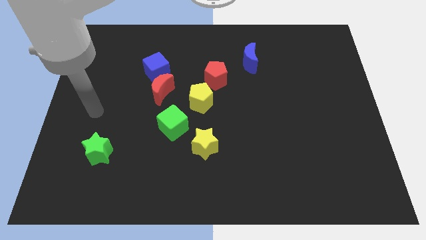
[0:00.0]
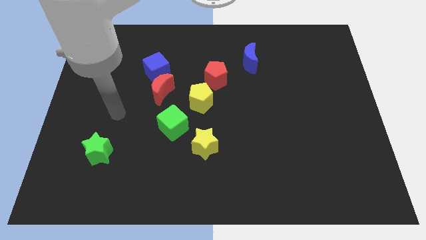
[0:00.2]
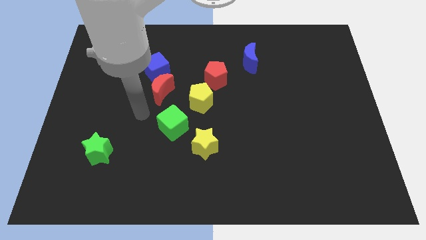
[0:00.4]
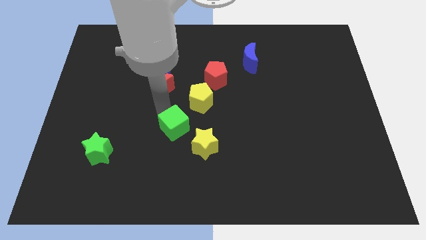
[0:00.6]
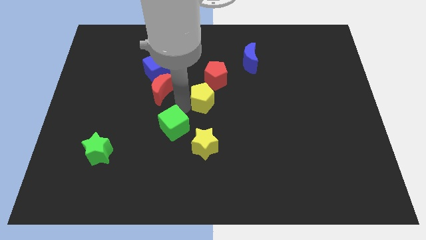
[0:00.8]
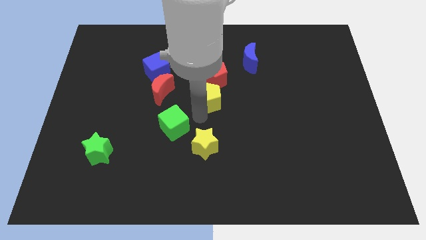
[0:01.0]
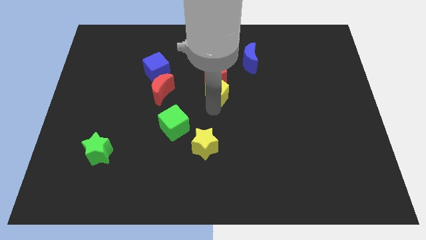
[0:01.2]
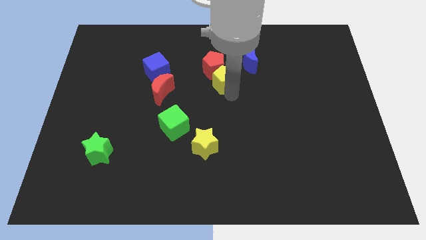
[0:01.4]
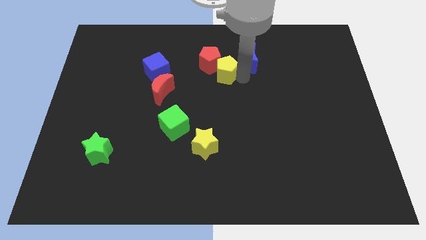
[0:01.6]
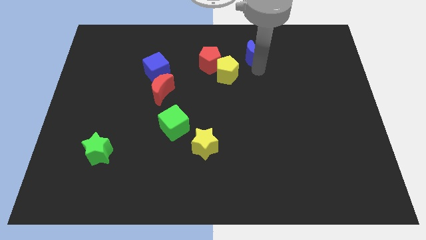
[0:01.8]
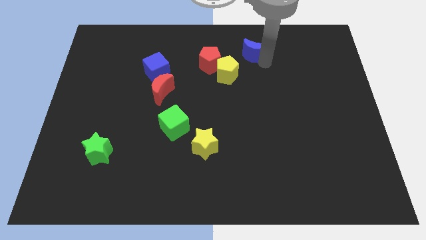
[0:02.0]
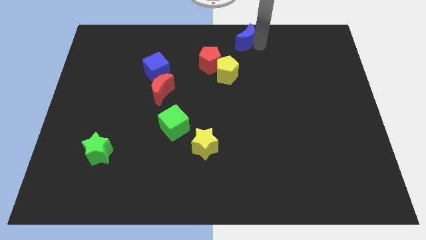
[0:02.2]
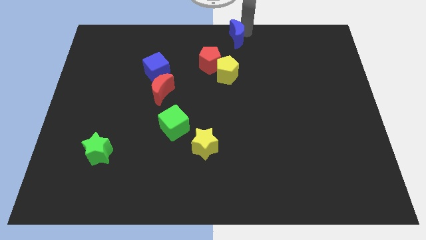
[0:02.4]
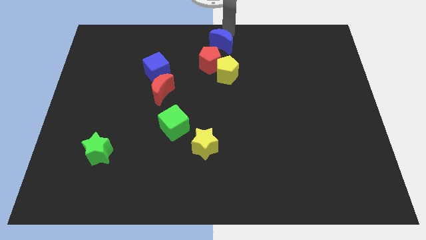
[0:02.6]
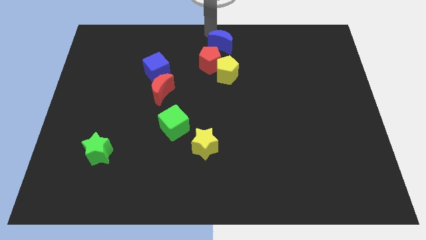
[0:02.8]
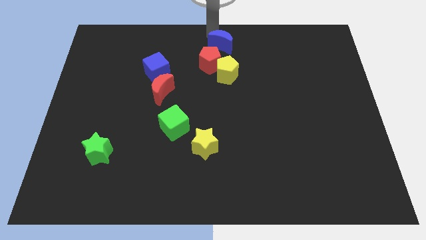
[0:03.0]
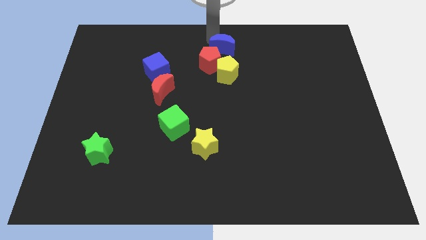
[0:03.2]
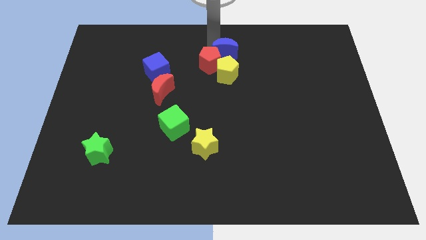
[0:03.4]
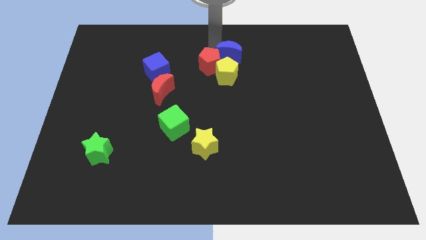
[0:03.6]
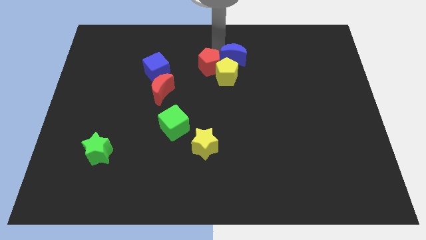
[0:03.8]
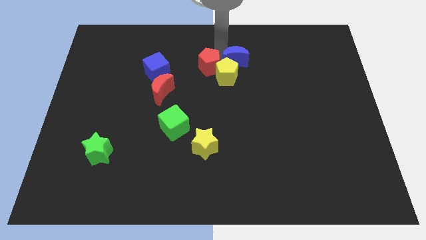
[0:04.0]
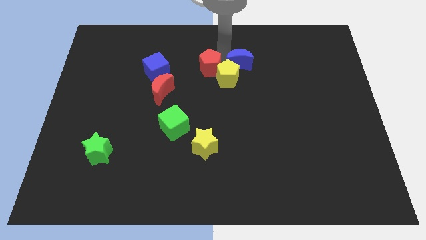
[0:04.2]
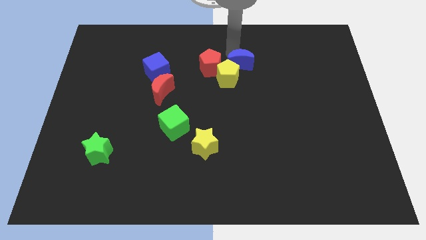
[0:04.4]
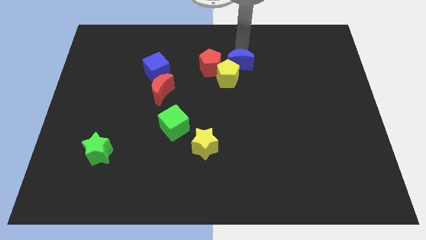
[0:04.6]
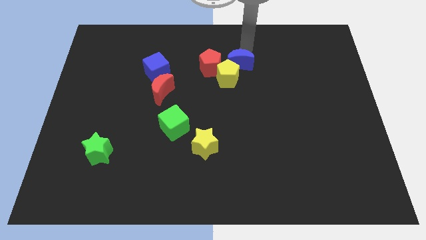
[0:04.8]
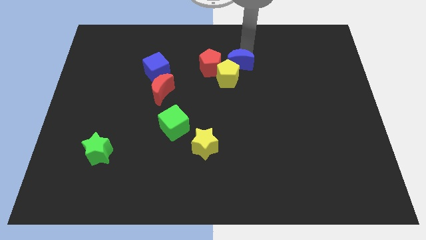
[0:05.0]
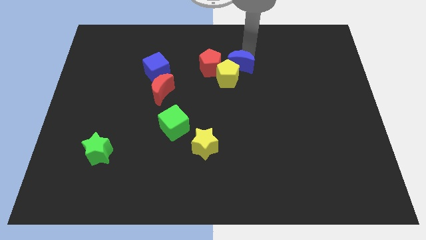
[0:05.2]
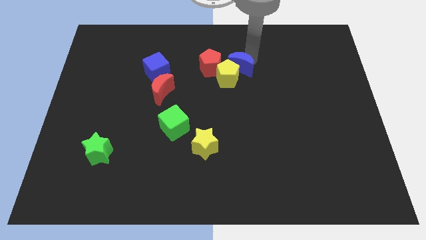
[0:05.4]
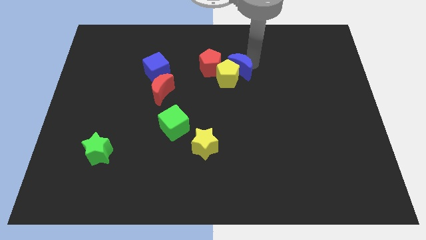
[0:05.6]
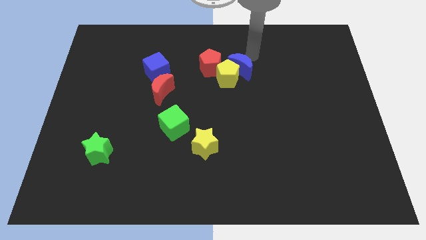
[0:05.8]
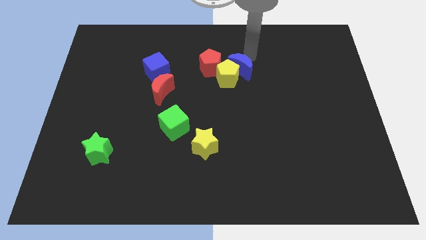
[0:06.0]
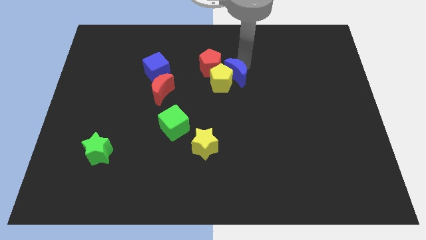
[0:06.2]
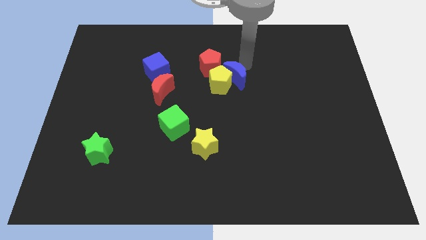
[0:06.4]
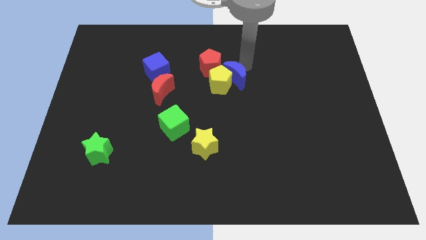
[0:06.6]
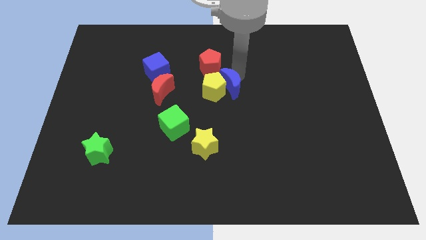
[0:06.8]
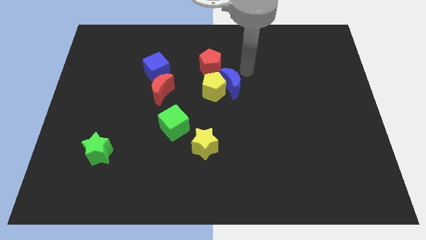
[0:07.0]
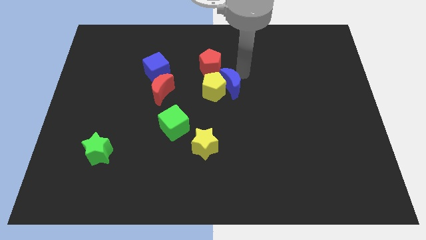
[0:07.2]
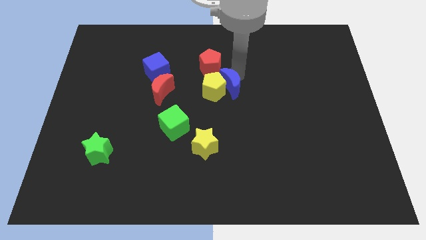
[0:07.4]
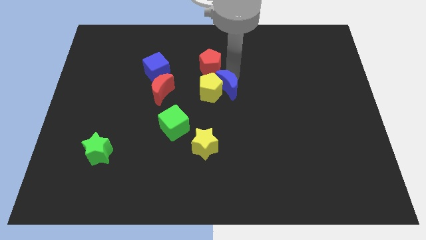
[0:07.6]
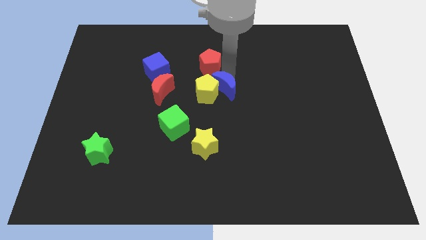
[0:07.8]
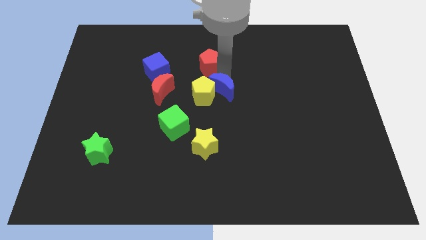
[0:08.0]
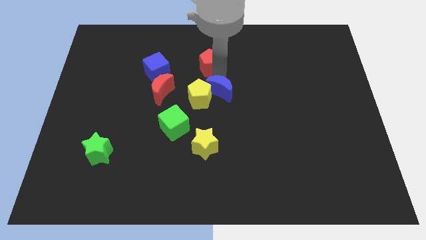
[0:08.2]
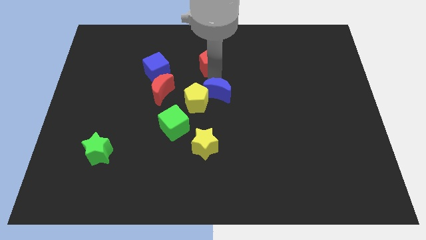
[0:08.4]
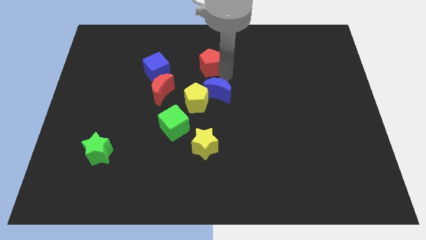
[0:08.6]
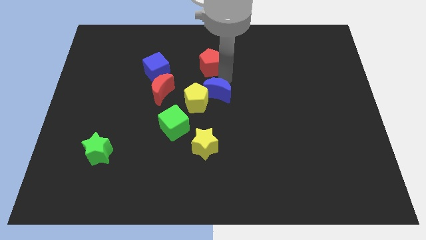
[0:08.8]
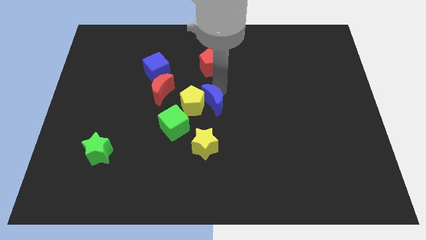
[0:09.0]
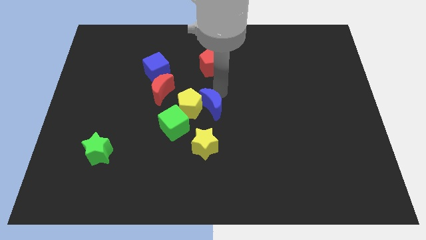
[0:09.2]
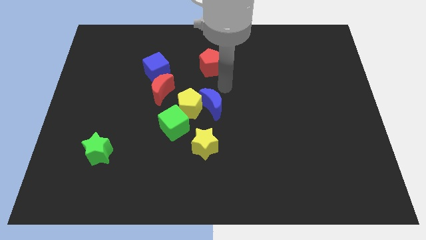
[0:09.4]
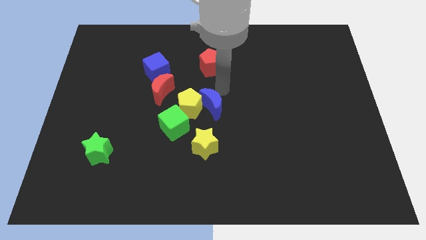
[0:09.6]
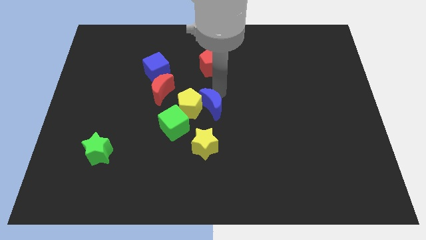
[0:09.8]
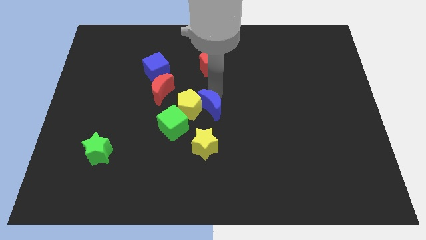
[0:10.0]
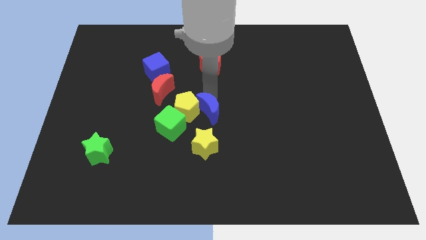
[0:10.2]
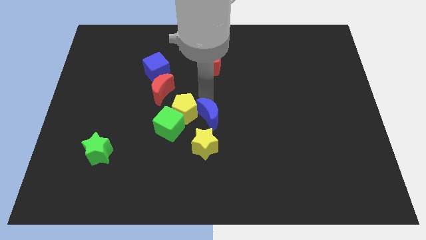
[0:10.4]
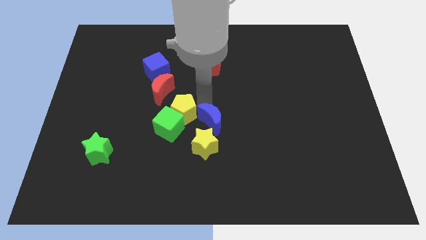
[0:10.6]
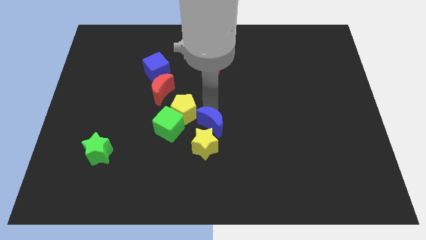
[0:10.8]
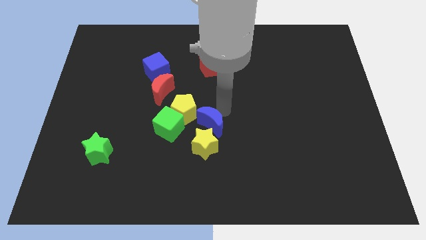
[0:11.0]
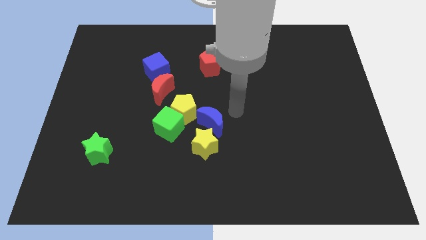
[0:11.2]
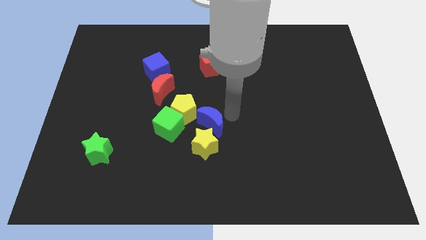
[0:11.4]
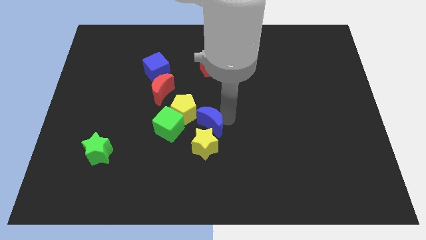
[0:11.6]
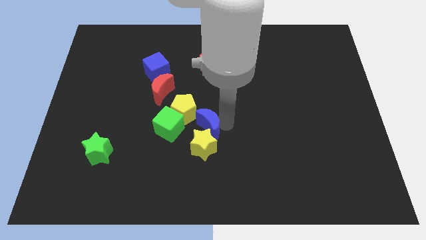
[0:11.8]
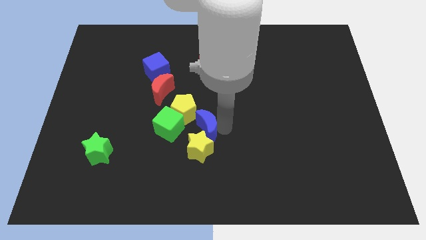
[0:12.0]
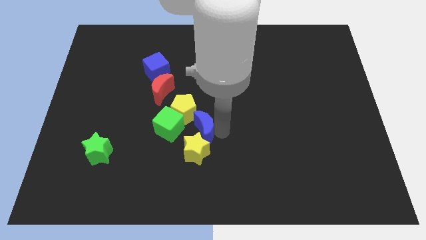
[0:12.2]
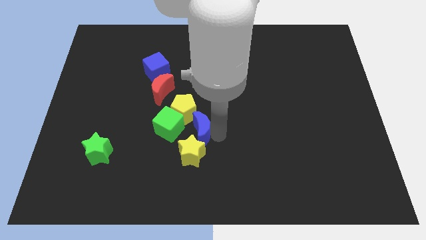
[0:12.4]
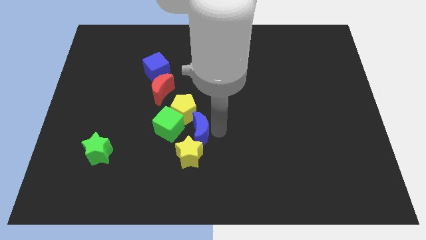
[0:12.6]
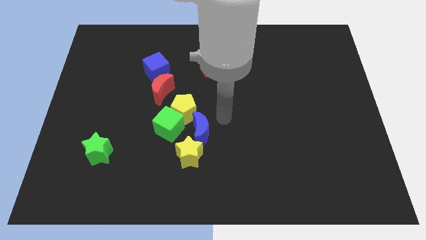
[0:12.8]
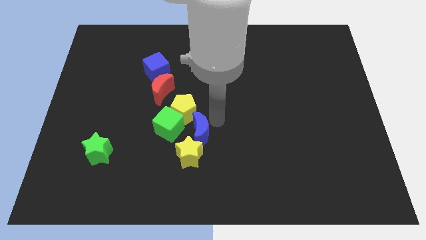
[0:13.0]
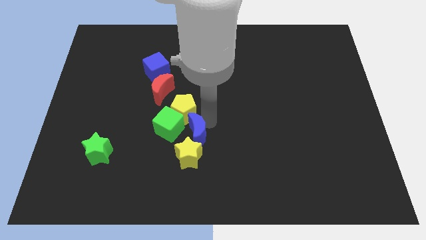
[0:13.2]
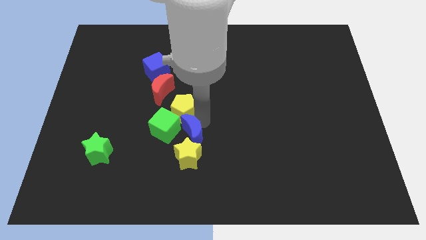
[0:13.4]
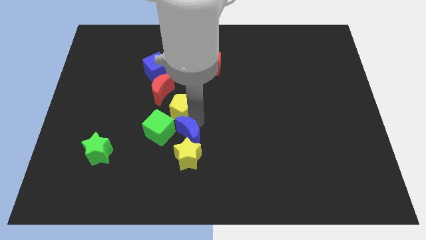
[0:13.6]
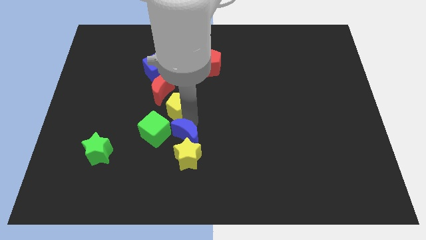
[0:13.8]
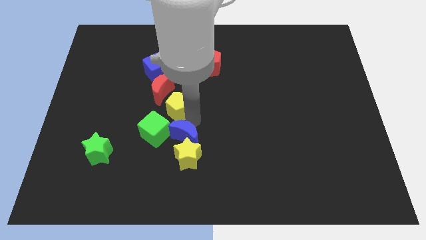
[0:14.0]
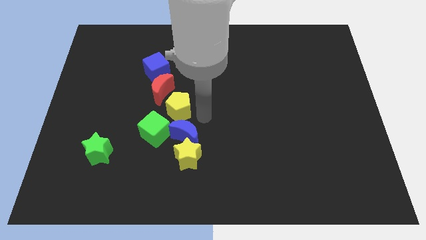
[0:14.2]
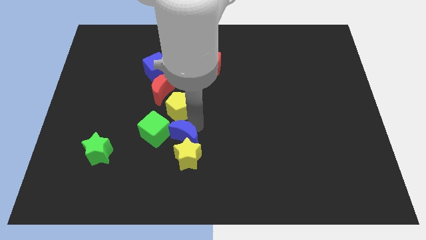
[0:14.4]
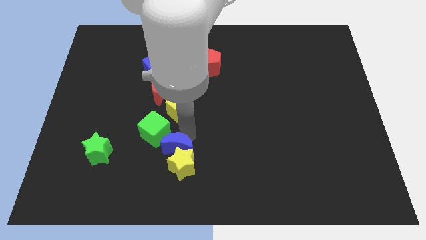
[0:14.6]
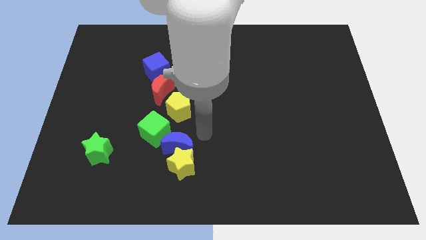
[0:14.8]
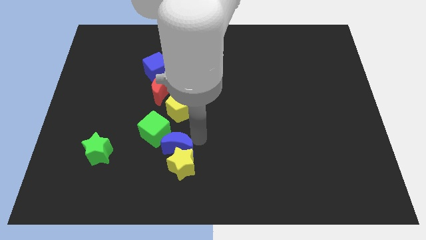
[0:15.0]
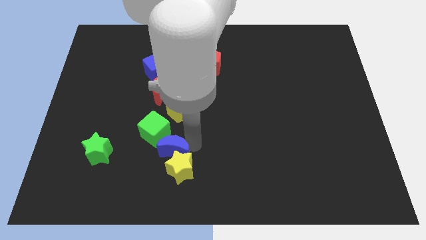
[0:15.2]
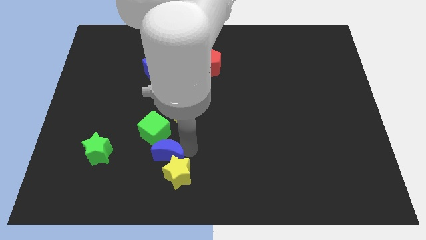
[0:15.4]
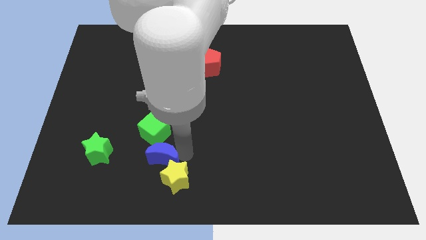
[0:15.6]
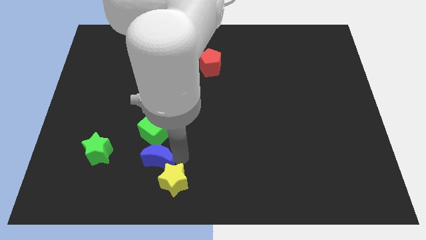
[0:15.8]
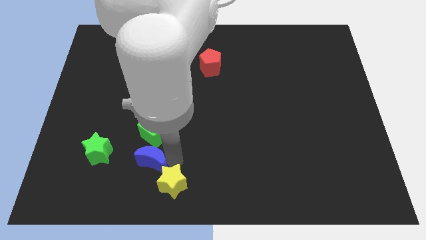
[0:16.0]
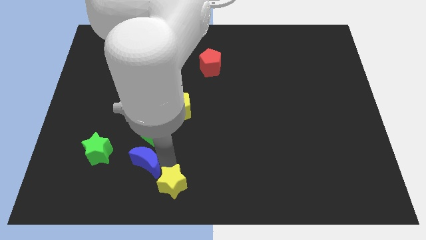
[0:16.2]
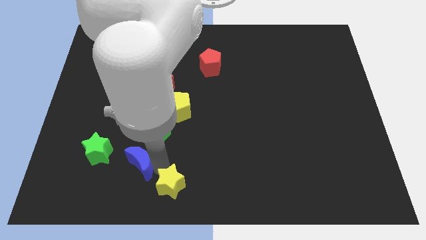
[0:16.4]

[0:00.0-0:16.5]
move the blue moon to the bottom right of the green star
